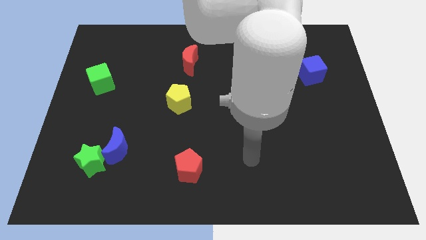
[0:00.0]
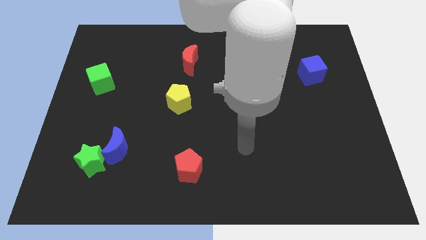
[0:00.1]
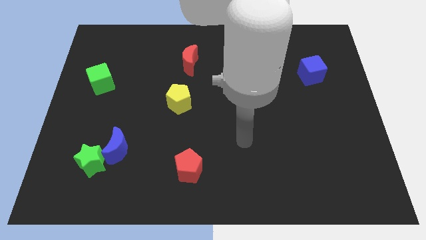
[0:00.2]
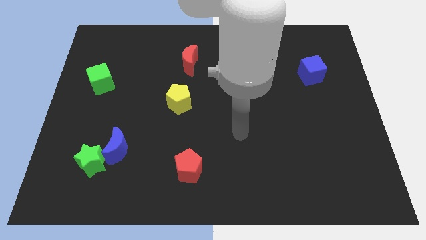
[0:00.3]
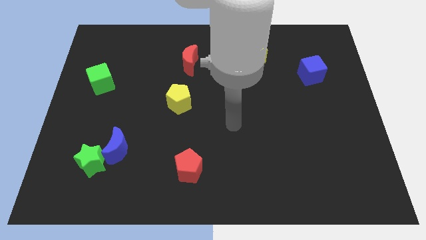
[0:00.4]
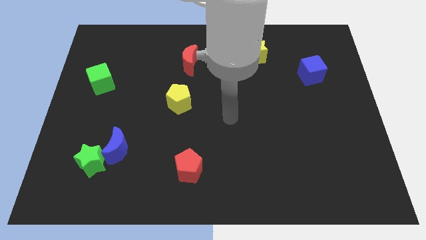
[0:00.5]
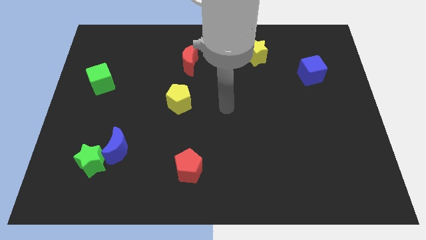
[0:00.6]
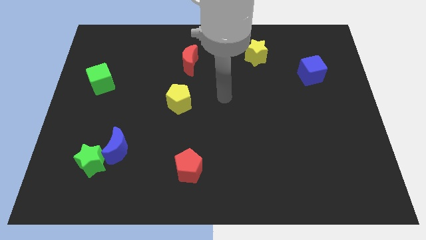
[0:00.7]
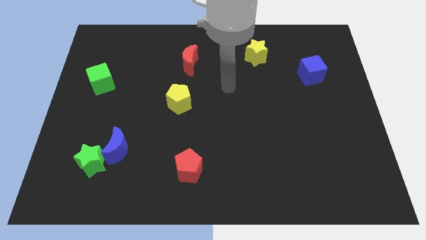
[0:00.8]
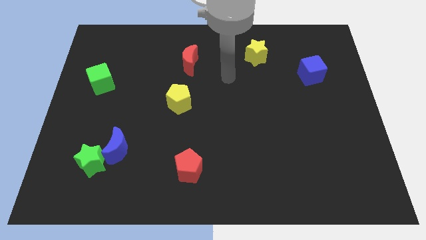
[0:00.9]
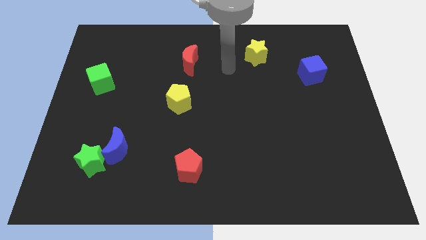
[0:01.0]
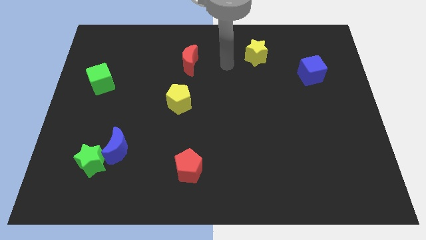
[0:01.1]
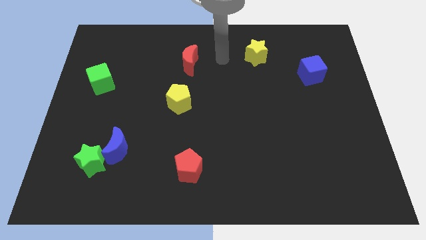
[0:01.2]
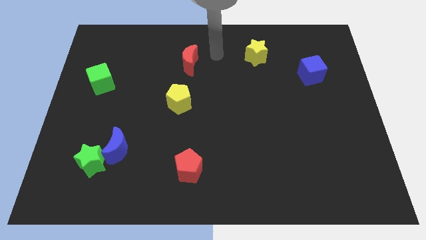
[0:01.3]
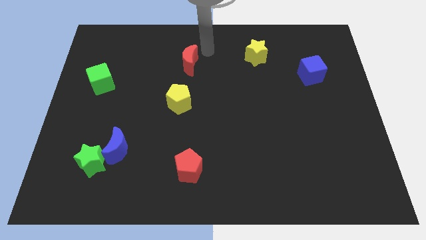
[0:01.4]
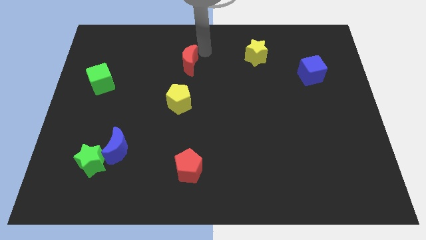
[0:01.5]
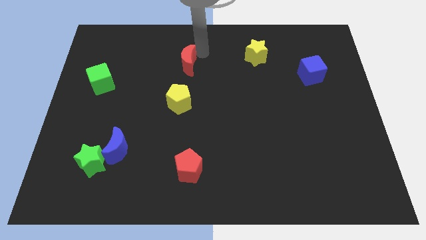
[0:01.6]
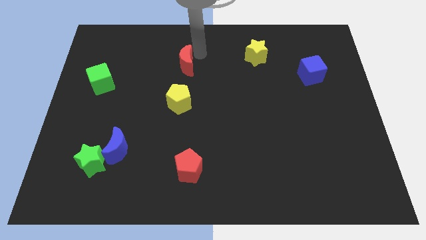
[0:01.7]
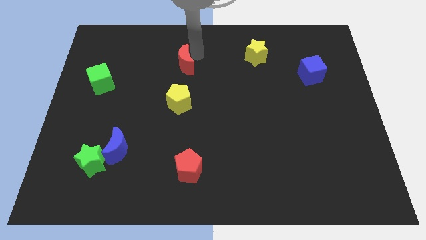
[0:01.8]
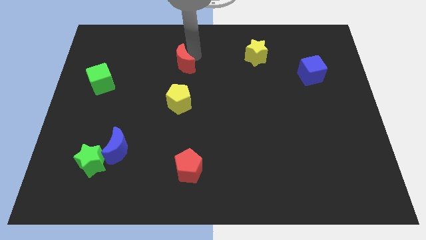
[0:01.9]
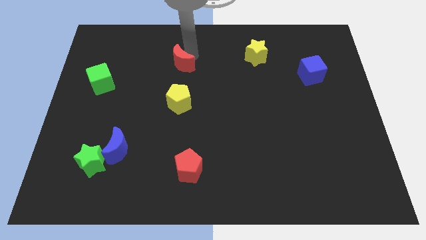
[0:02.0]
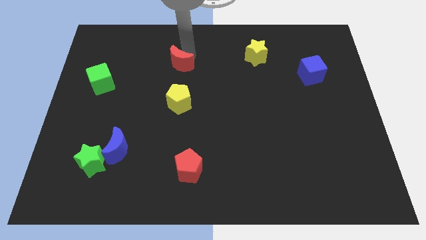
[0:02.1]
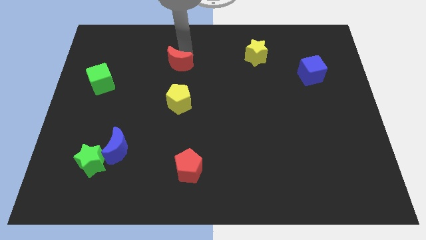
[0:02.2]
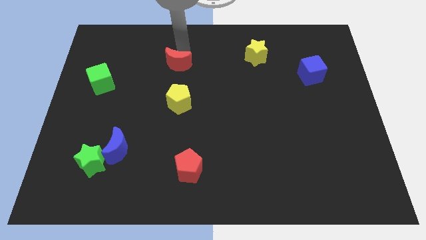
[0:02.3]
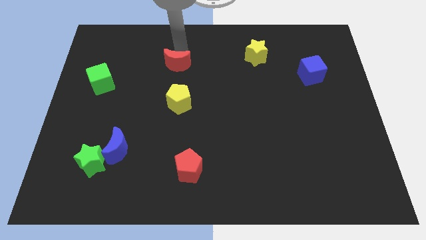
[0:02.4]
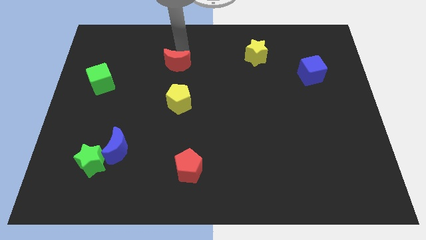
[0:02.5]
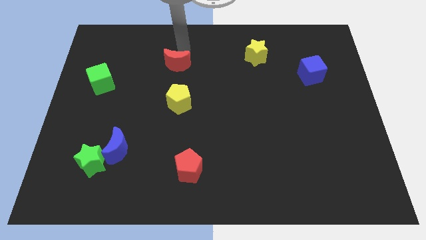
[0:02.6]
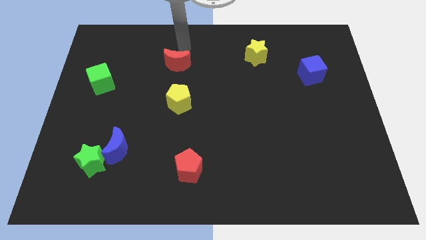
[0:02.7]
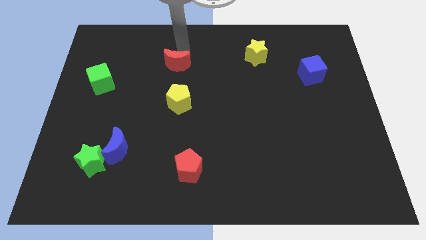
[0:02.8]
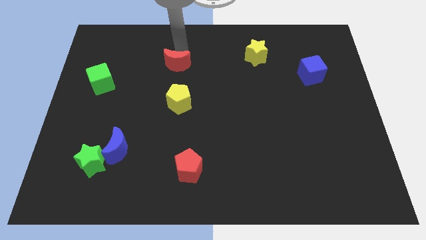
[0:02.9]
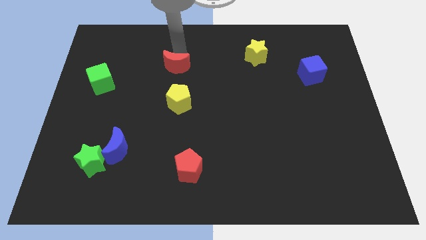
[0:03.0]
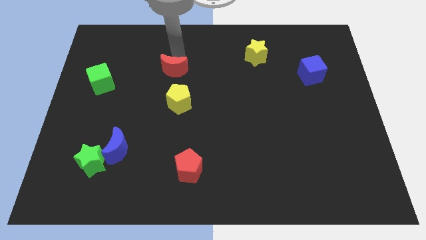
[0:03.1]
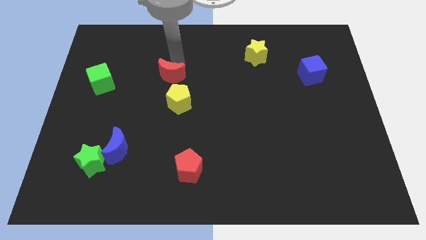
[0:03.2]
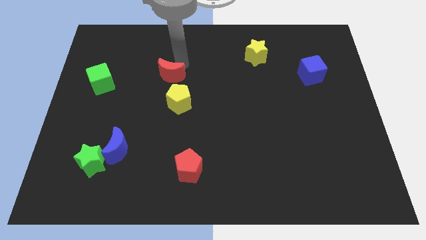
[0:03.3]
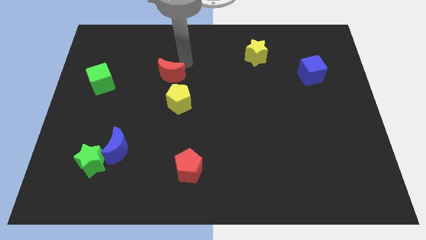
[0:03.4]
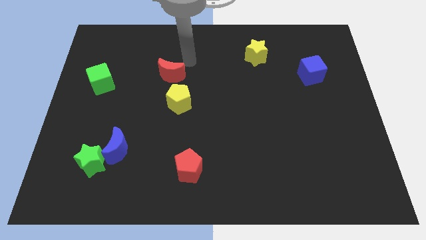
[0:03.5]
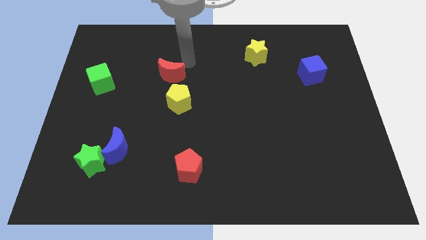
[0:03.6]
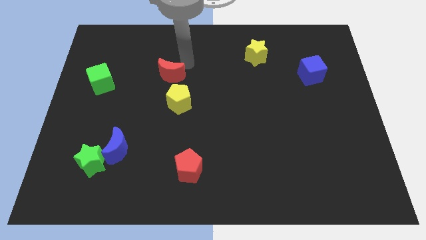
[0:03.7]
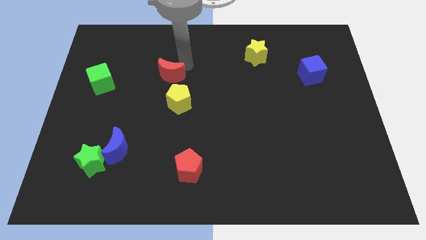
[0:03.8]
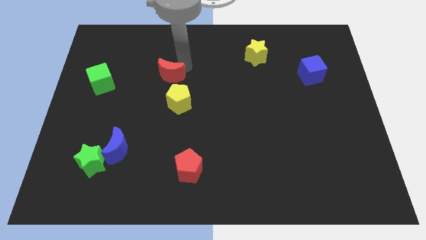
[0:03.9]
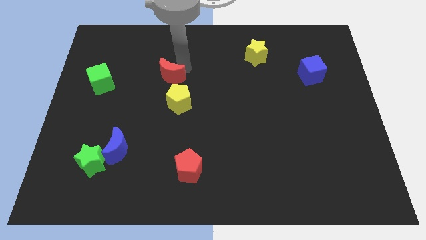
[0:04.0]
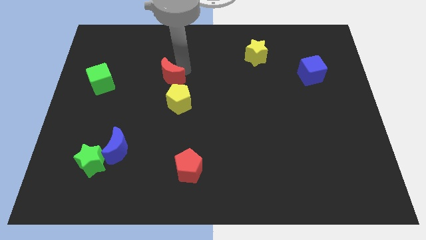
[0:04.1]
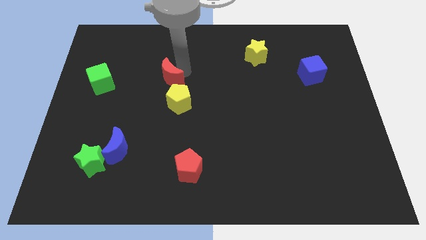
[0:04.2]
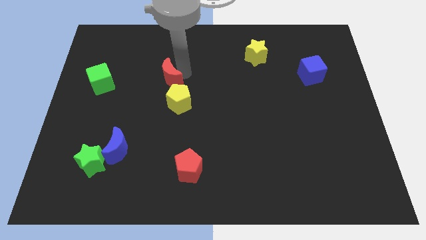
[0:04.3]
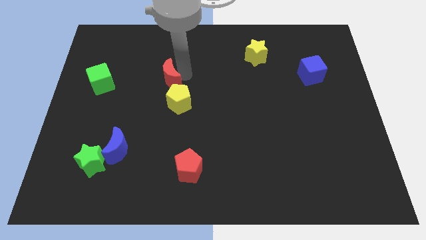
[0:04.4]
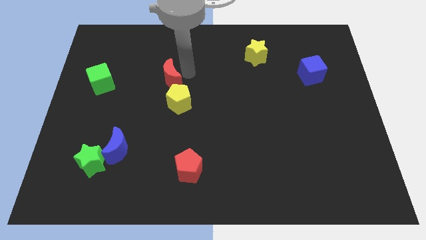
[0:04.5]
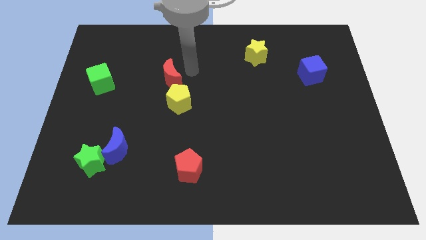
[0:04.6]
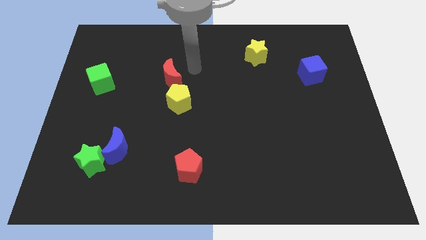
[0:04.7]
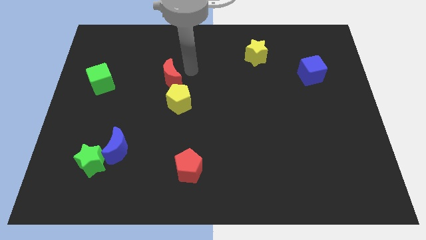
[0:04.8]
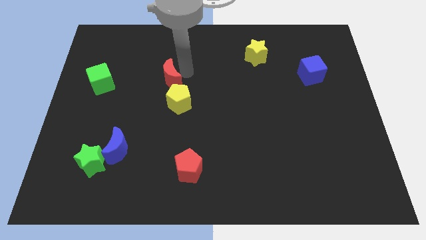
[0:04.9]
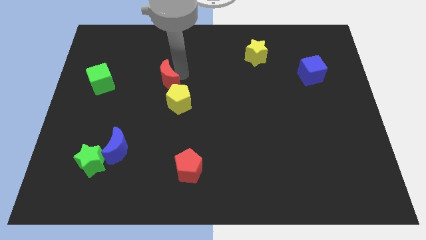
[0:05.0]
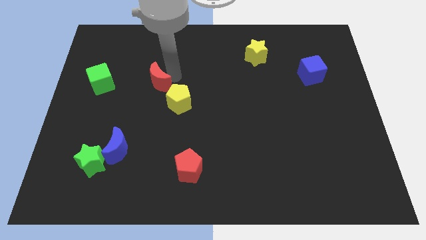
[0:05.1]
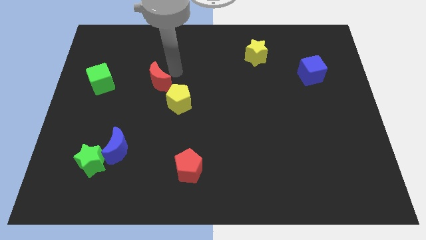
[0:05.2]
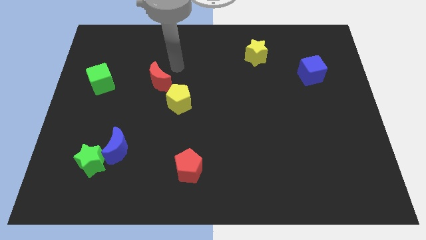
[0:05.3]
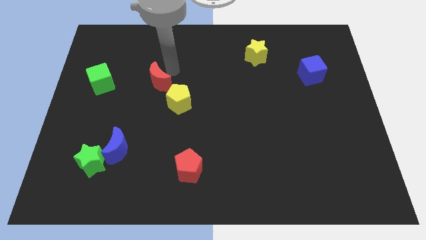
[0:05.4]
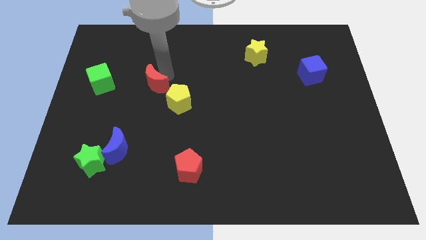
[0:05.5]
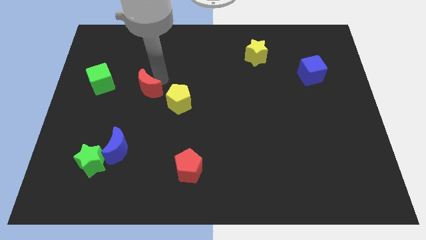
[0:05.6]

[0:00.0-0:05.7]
push the red moon to the left side of the yellow pentagon
